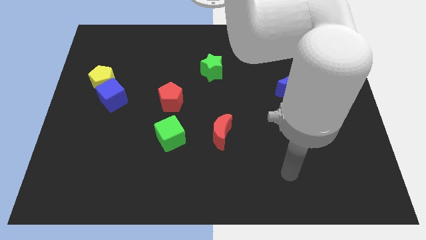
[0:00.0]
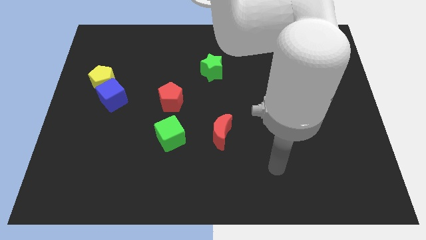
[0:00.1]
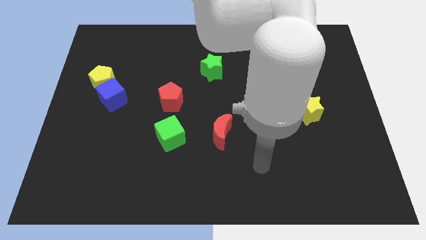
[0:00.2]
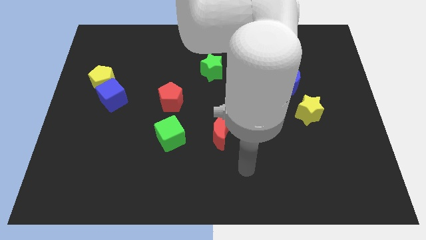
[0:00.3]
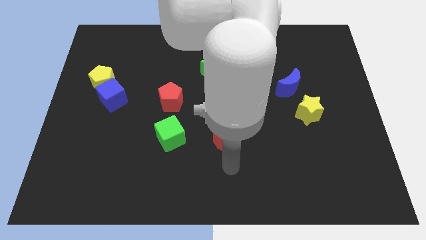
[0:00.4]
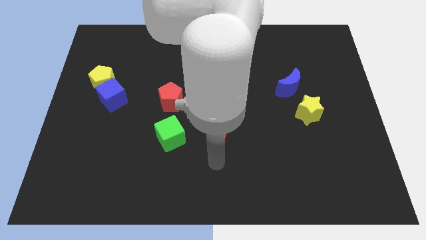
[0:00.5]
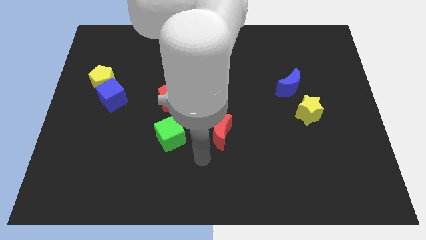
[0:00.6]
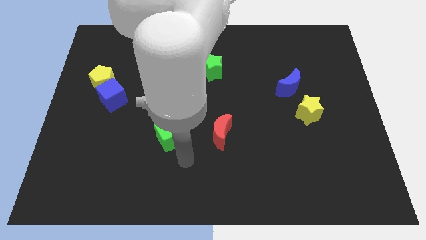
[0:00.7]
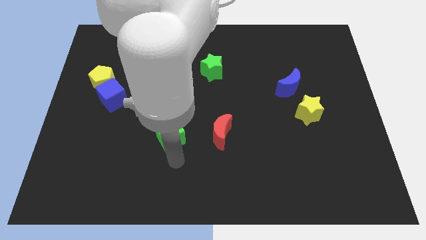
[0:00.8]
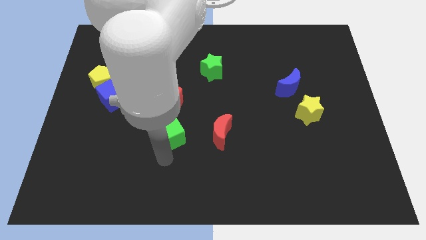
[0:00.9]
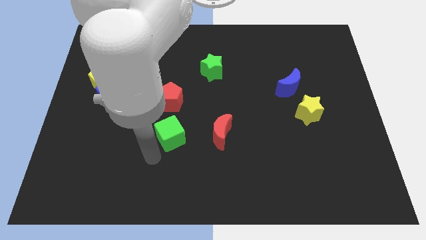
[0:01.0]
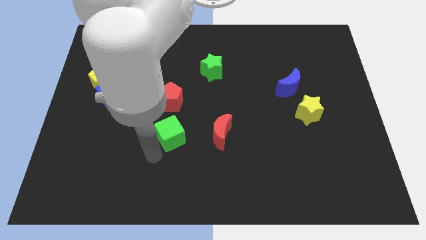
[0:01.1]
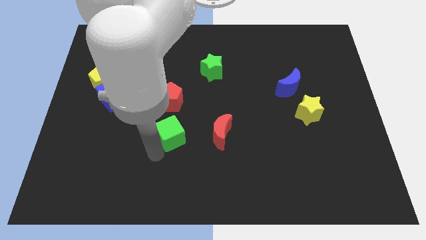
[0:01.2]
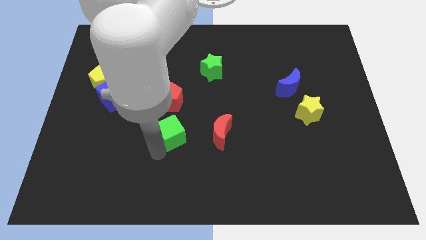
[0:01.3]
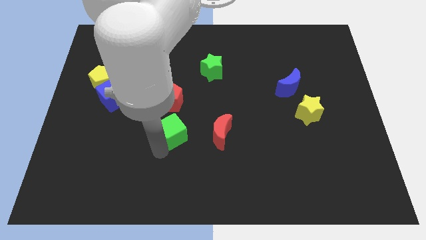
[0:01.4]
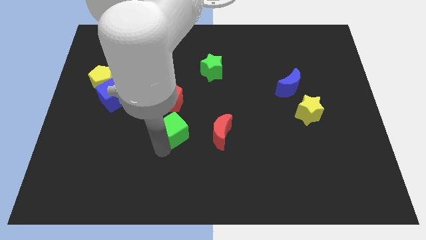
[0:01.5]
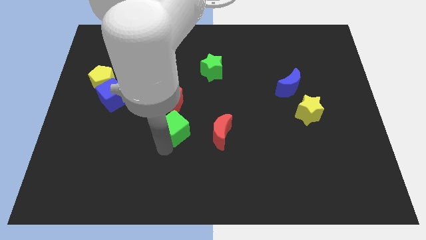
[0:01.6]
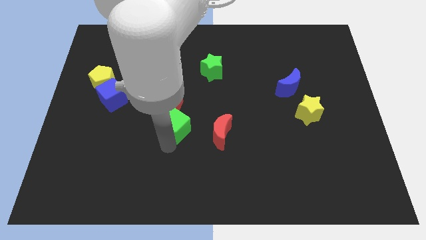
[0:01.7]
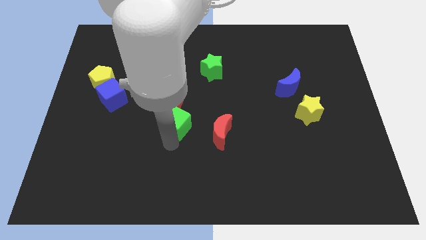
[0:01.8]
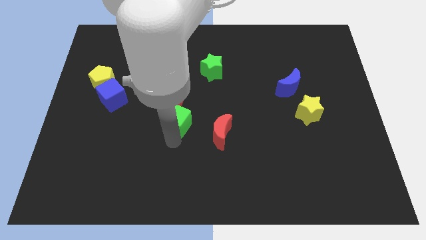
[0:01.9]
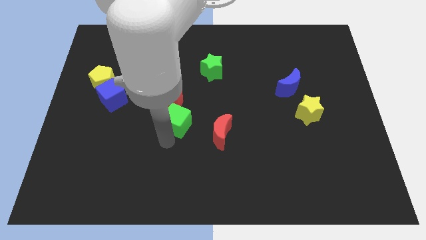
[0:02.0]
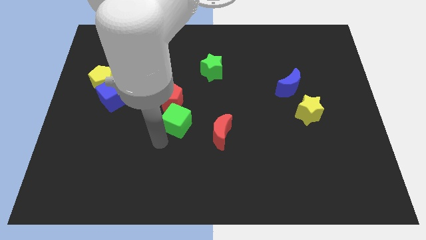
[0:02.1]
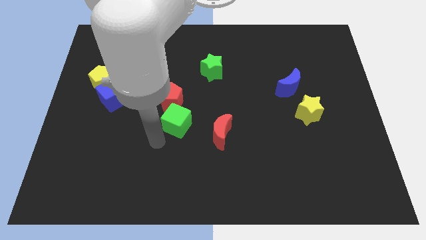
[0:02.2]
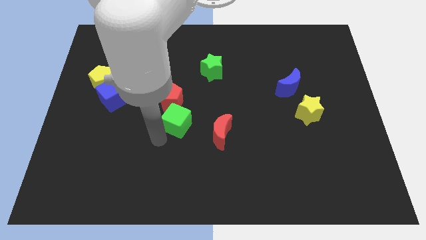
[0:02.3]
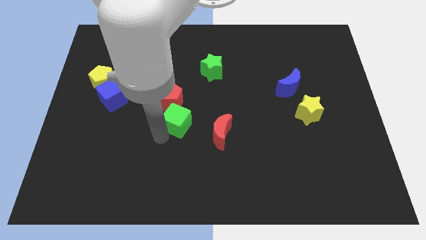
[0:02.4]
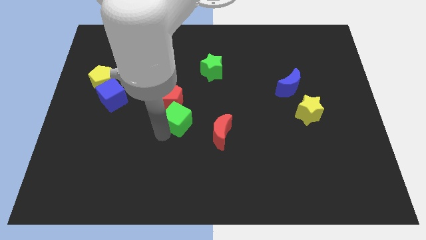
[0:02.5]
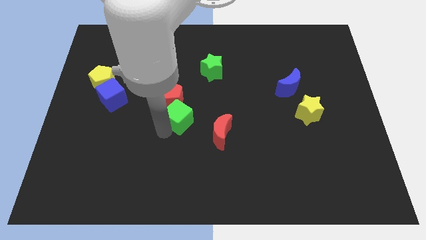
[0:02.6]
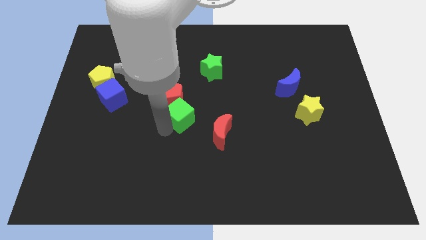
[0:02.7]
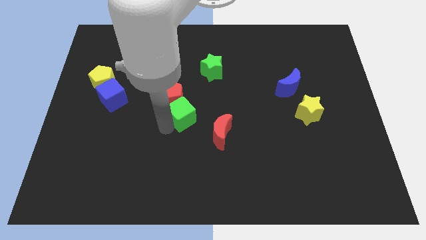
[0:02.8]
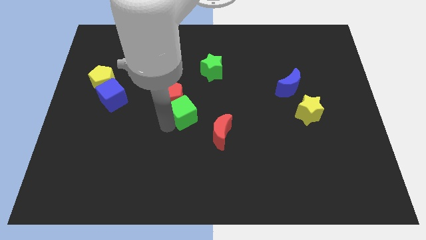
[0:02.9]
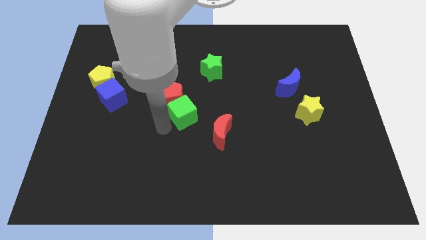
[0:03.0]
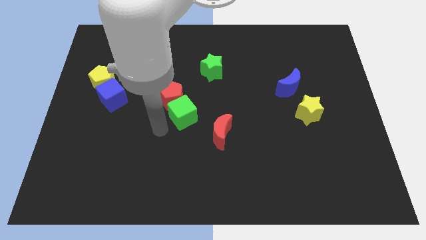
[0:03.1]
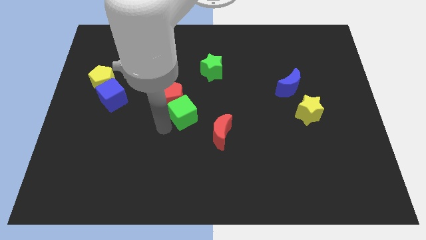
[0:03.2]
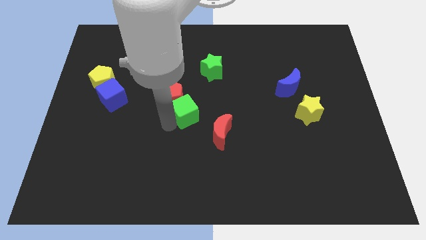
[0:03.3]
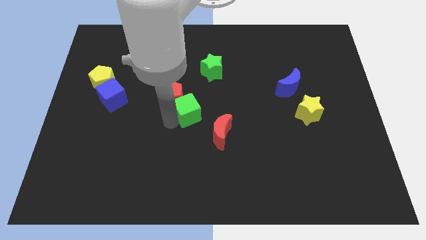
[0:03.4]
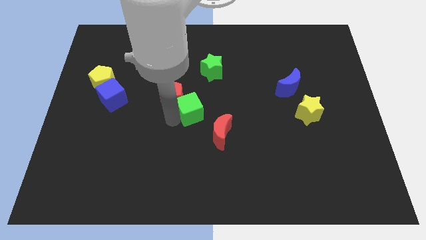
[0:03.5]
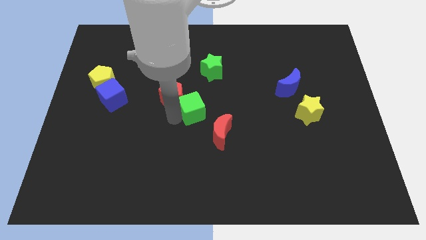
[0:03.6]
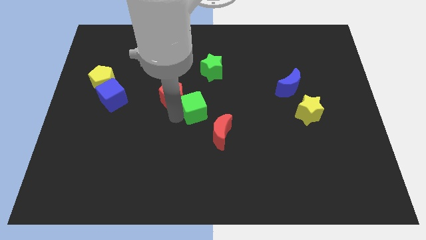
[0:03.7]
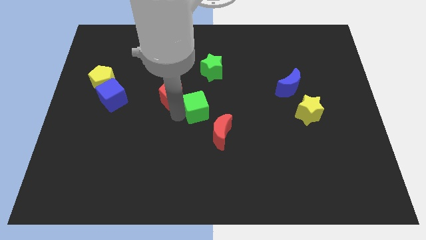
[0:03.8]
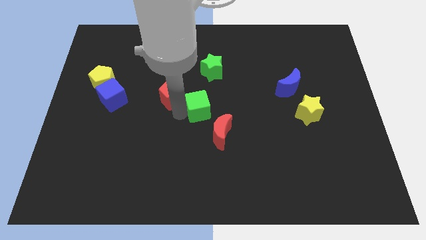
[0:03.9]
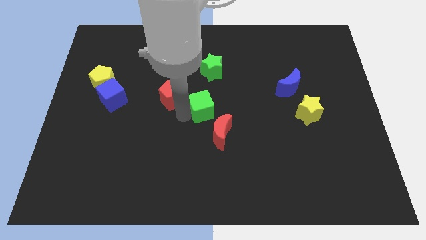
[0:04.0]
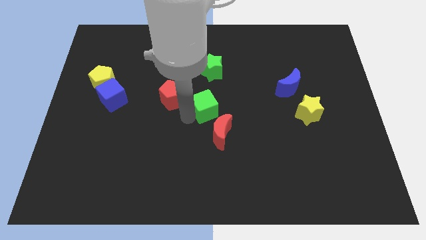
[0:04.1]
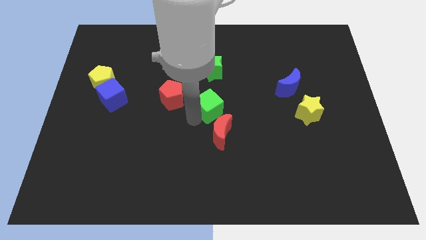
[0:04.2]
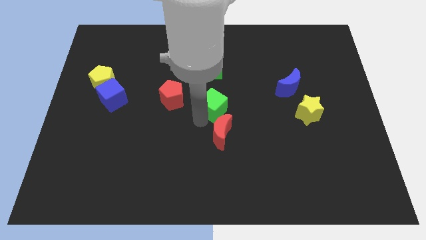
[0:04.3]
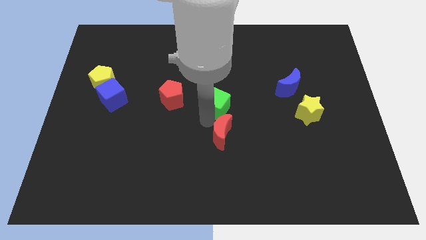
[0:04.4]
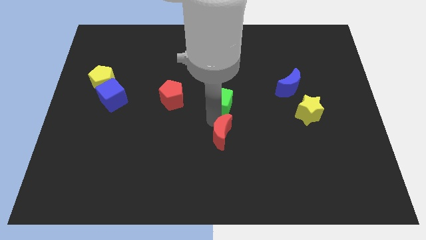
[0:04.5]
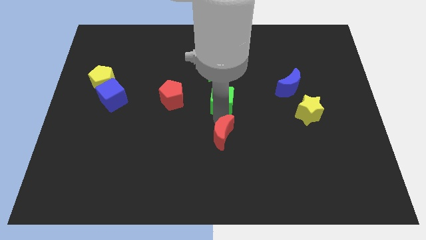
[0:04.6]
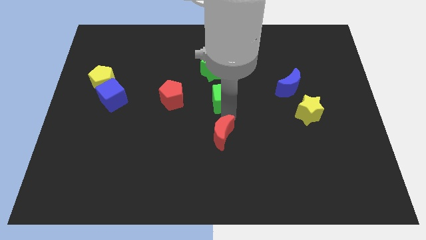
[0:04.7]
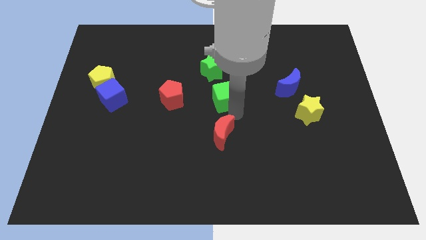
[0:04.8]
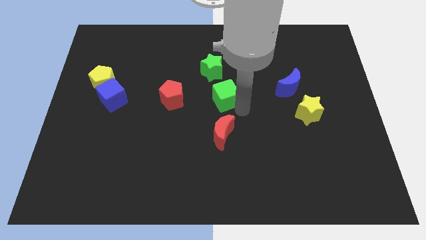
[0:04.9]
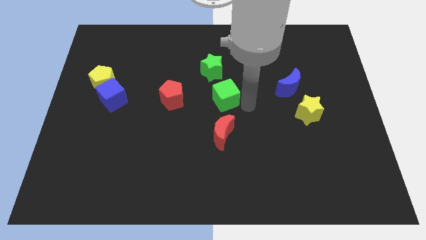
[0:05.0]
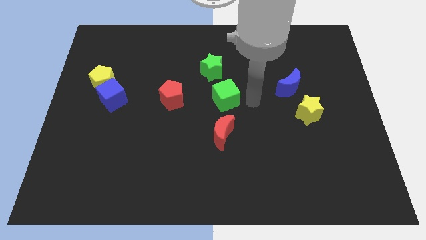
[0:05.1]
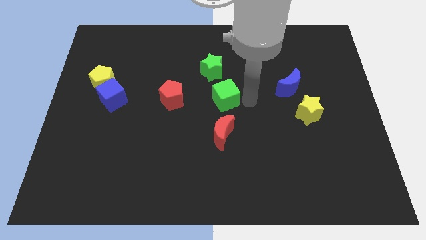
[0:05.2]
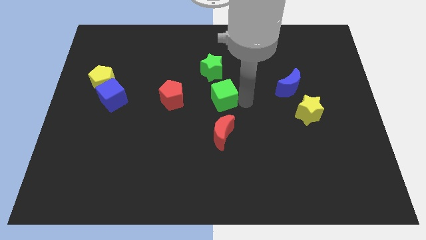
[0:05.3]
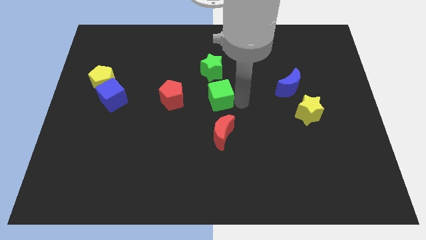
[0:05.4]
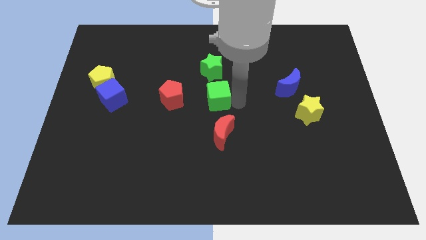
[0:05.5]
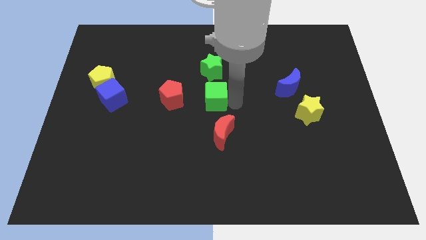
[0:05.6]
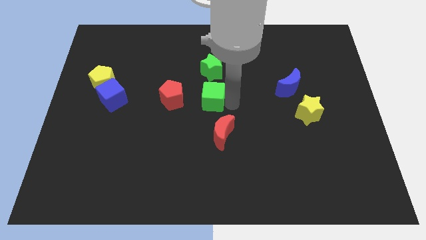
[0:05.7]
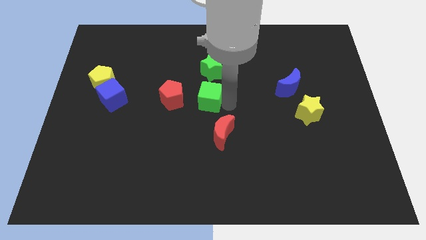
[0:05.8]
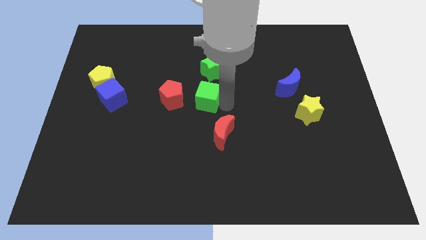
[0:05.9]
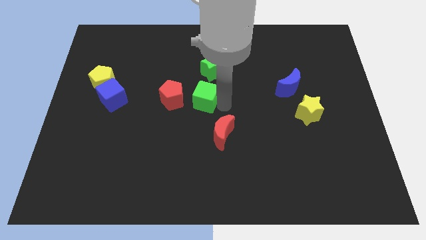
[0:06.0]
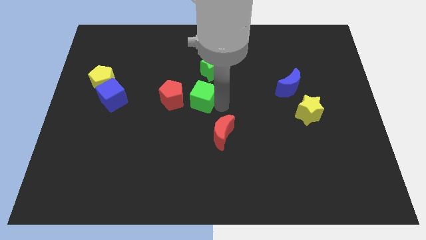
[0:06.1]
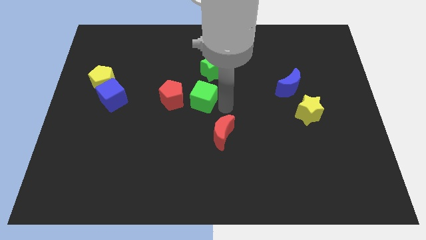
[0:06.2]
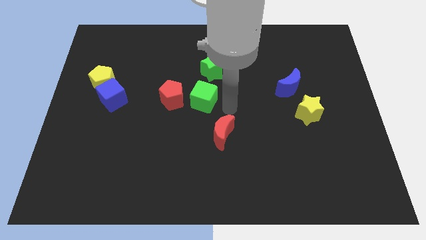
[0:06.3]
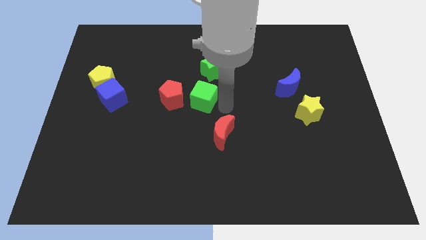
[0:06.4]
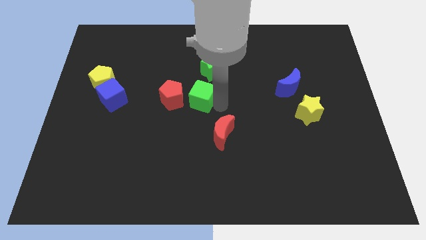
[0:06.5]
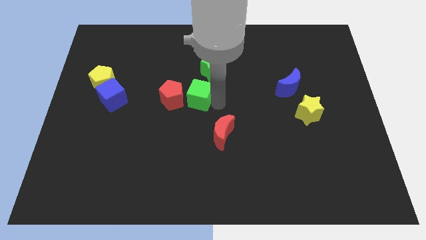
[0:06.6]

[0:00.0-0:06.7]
slide the green cube to the top right of the red pentagon

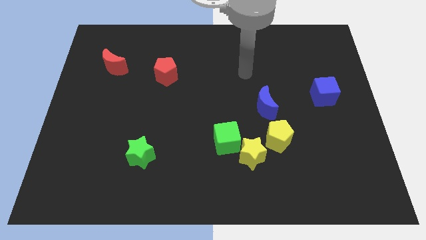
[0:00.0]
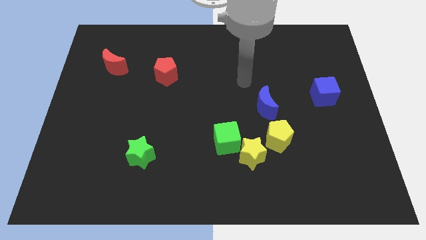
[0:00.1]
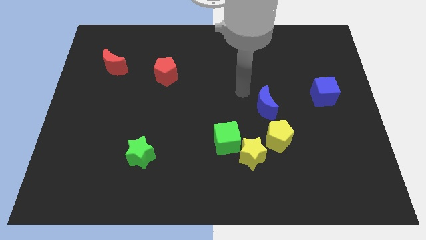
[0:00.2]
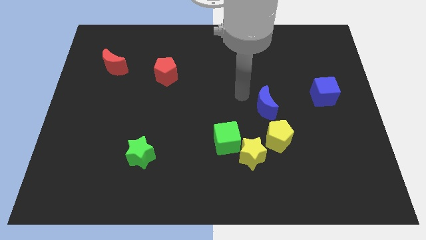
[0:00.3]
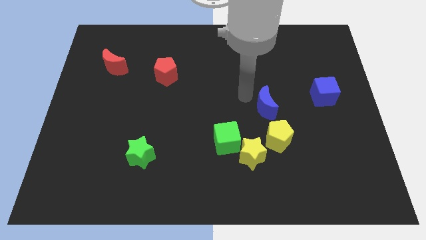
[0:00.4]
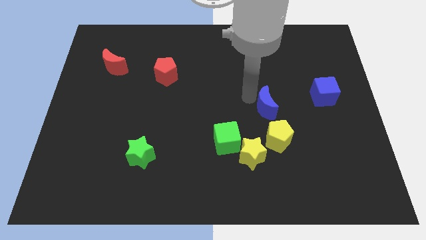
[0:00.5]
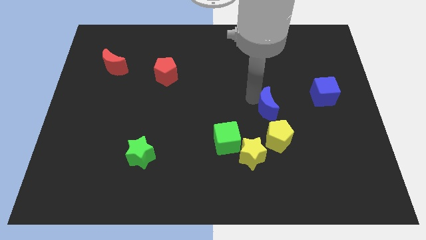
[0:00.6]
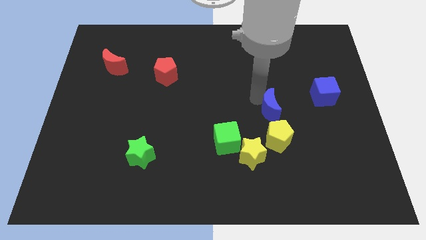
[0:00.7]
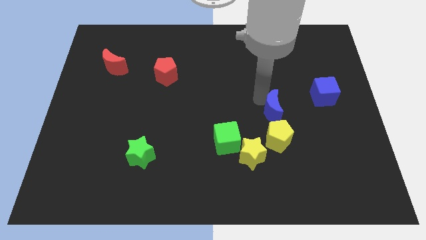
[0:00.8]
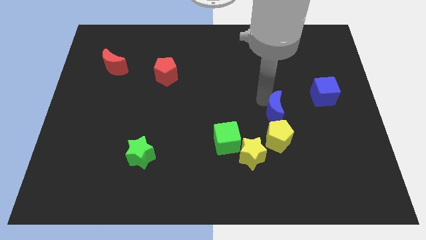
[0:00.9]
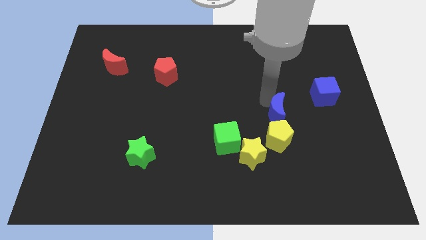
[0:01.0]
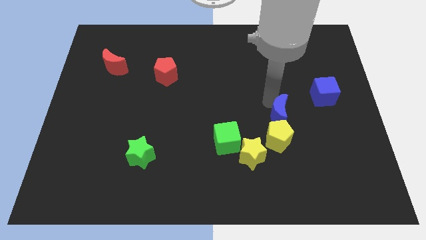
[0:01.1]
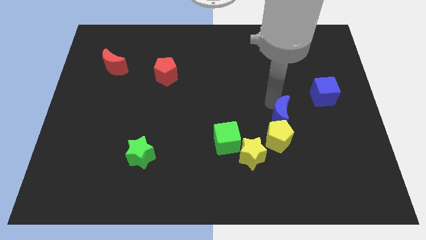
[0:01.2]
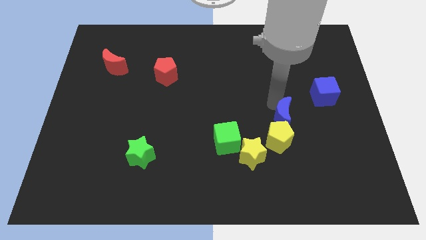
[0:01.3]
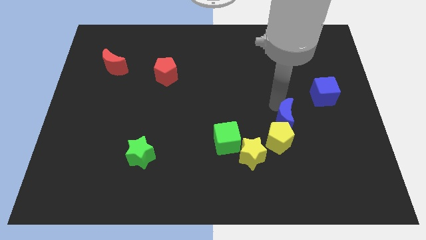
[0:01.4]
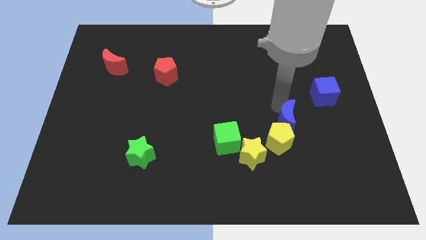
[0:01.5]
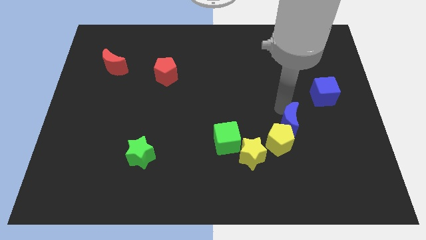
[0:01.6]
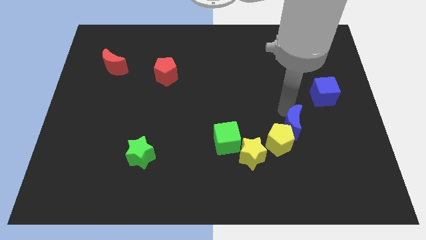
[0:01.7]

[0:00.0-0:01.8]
put the blue moon to the right of the yellow pentagon
